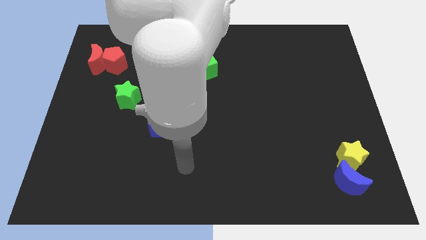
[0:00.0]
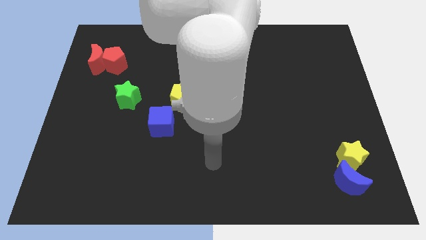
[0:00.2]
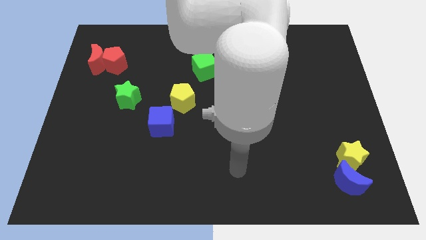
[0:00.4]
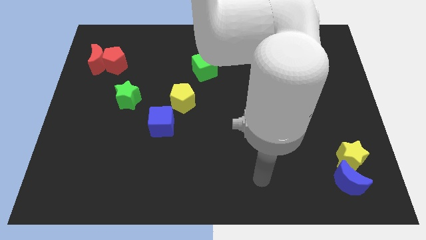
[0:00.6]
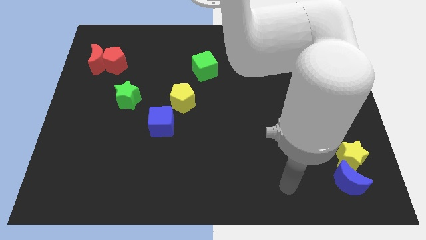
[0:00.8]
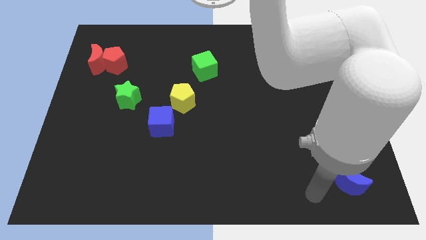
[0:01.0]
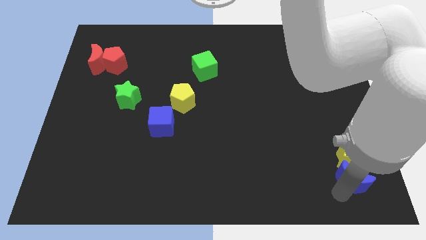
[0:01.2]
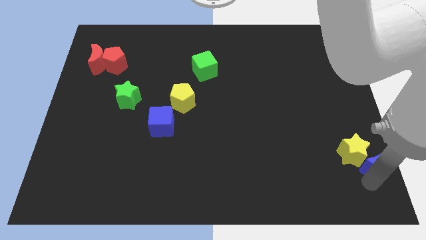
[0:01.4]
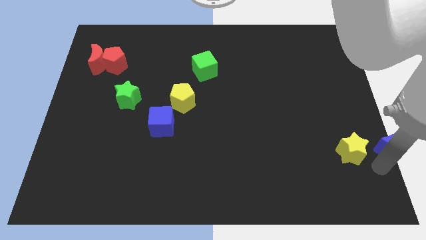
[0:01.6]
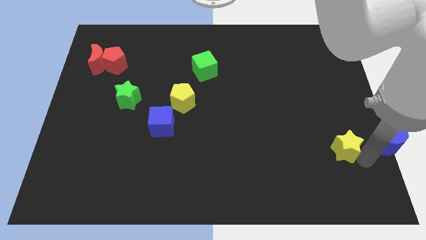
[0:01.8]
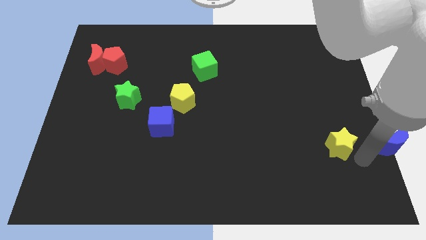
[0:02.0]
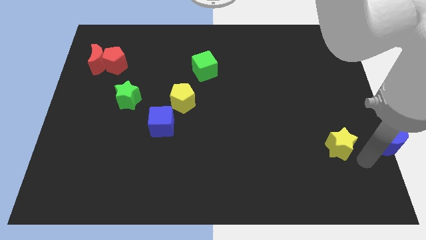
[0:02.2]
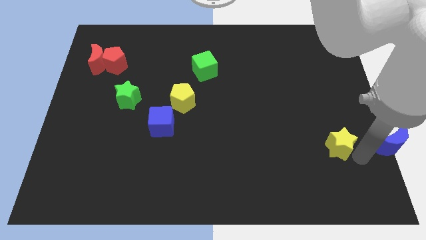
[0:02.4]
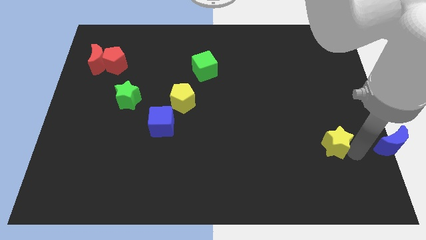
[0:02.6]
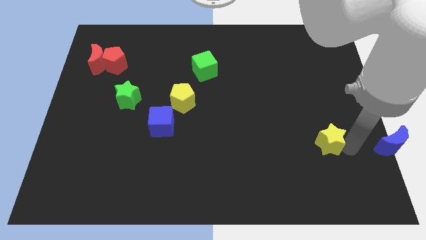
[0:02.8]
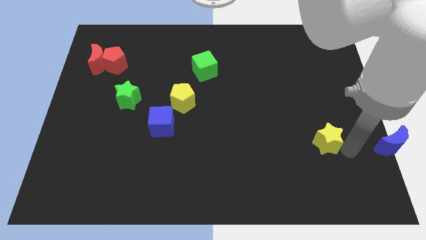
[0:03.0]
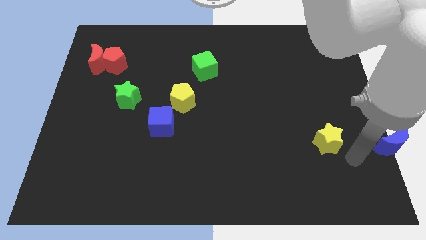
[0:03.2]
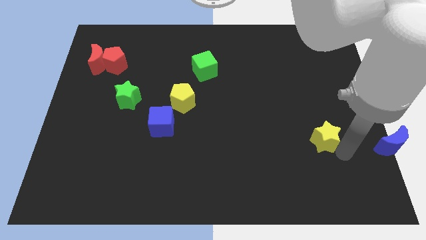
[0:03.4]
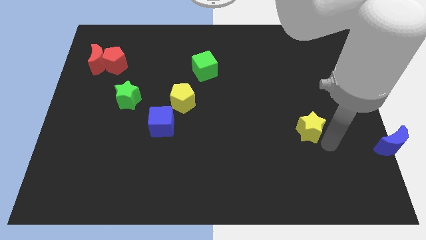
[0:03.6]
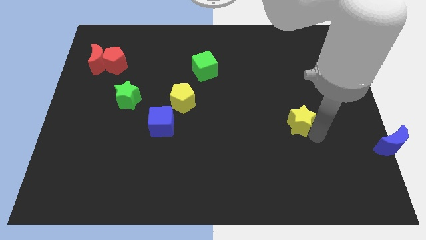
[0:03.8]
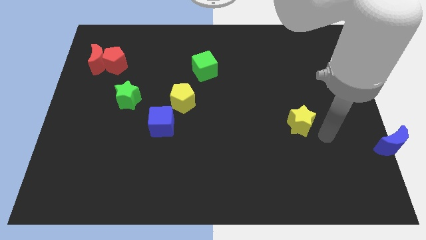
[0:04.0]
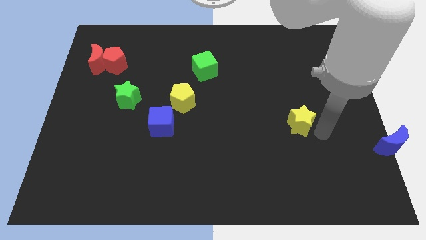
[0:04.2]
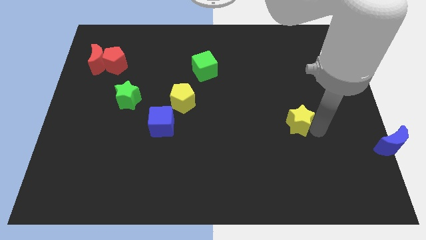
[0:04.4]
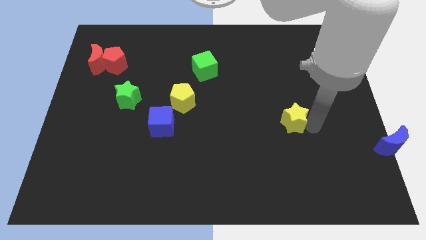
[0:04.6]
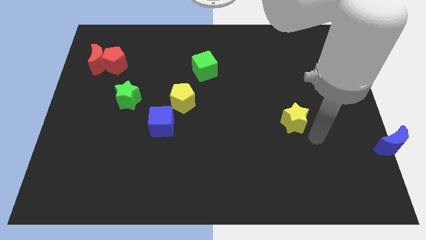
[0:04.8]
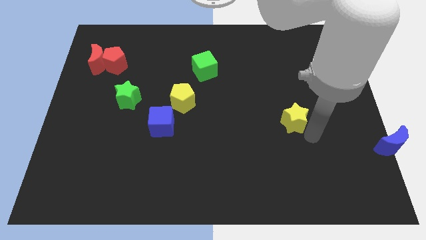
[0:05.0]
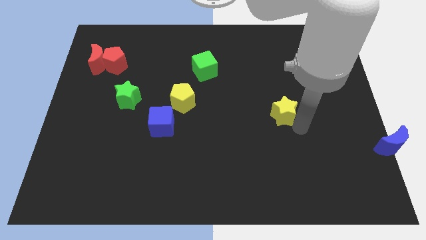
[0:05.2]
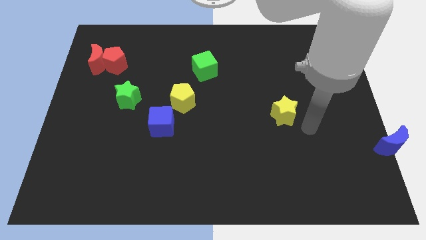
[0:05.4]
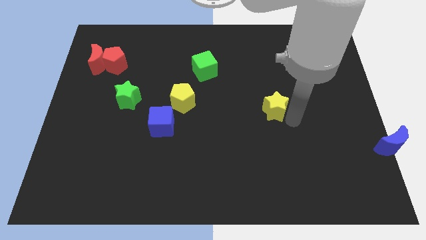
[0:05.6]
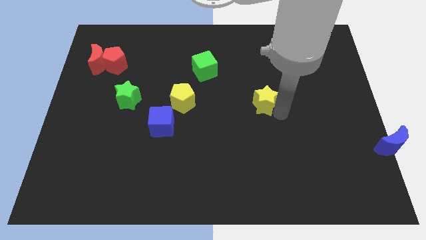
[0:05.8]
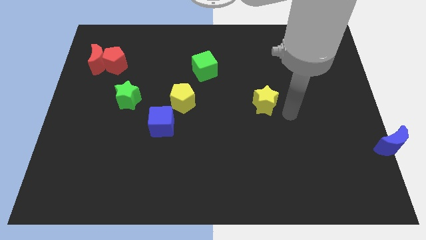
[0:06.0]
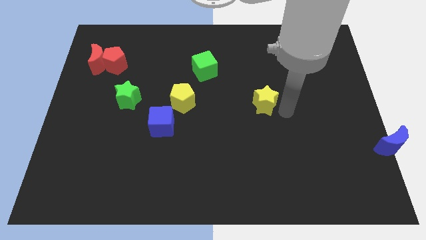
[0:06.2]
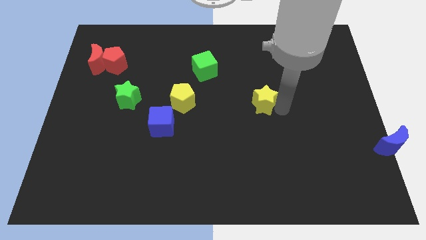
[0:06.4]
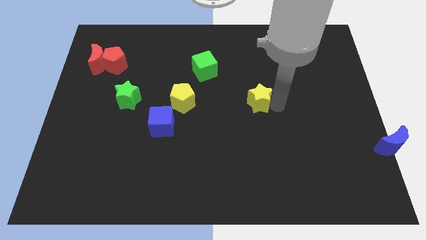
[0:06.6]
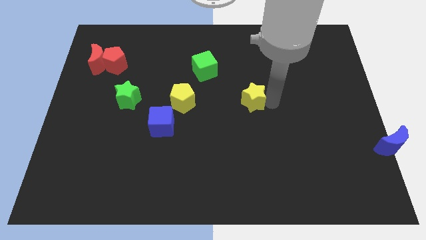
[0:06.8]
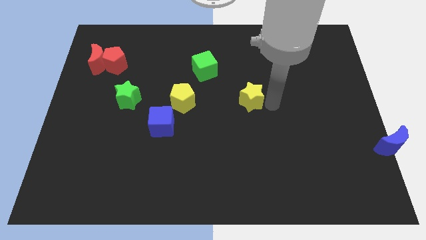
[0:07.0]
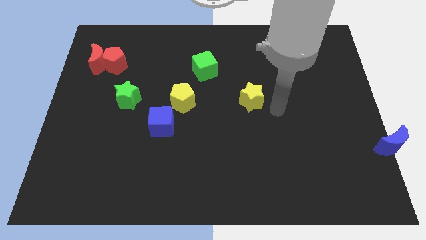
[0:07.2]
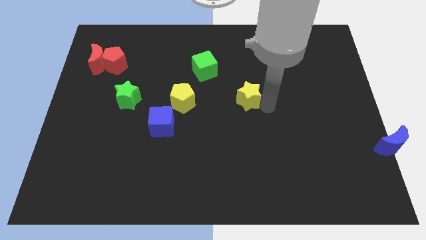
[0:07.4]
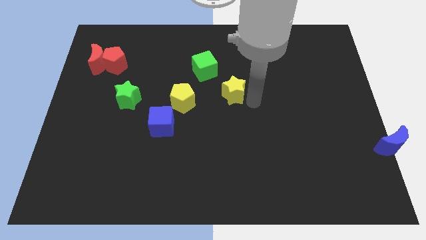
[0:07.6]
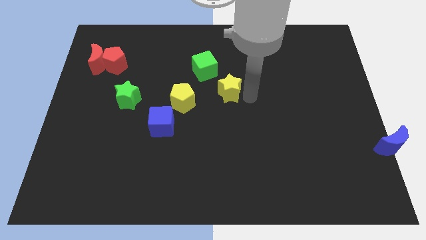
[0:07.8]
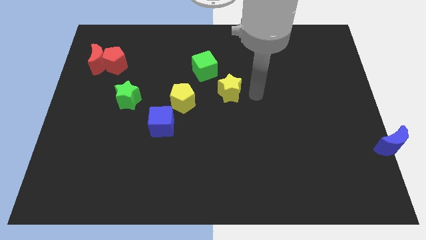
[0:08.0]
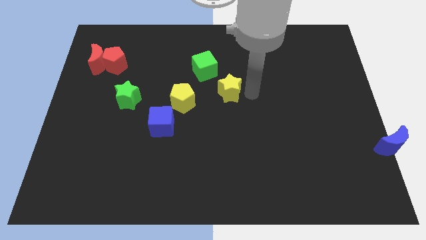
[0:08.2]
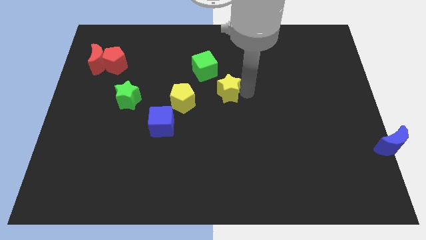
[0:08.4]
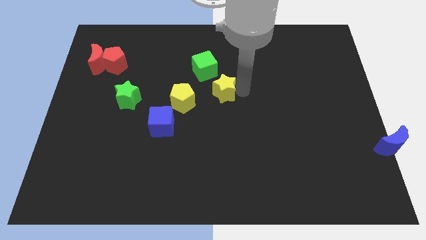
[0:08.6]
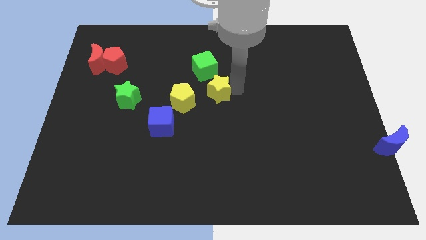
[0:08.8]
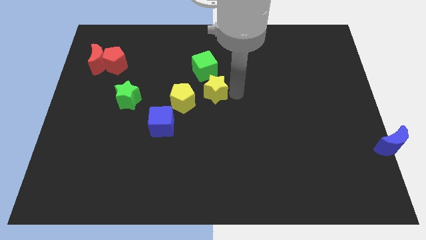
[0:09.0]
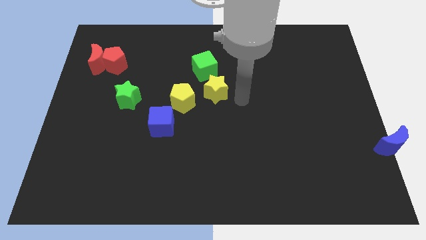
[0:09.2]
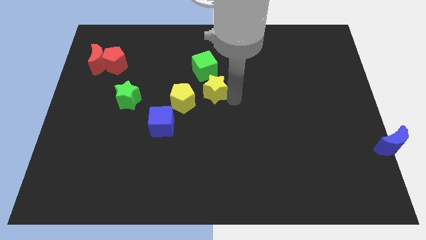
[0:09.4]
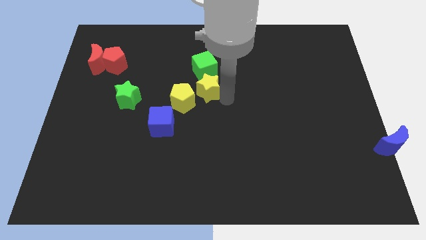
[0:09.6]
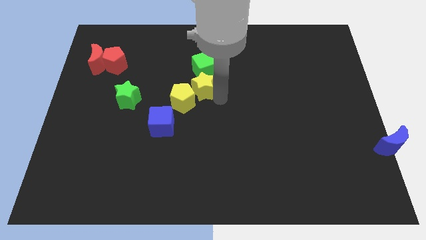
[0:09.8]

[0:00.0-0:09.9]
push the yellow star to the bottom left side of the green cube

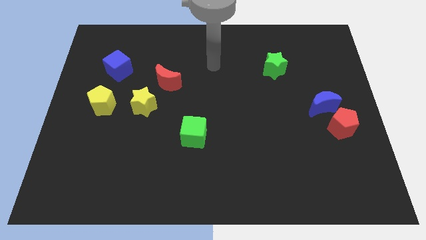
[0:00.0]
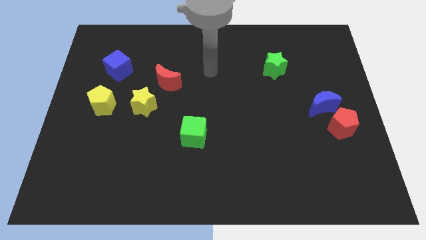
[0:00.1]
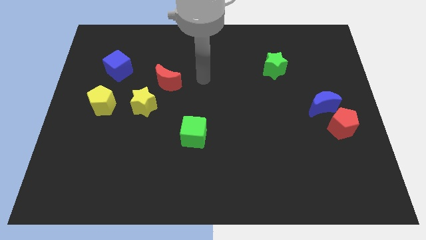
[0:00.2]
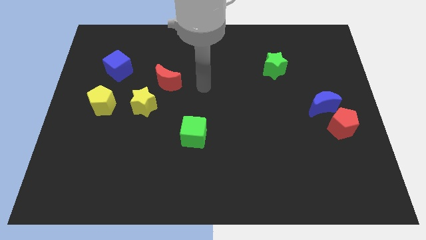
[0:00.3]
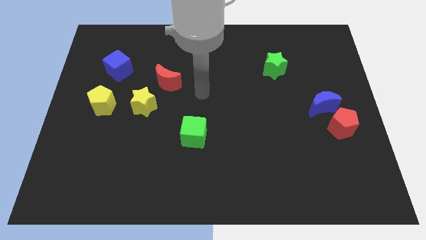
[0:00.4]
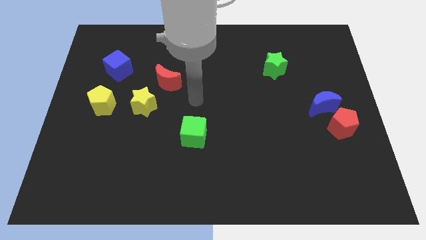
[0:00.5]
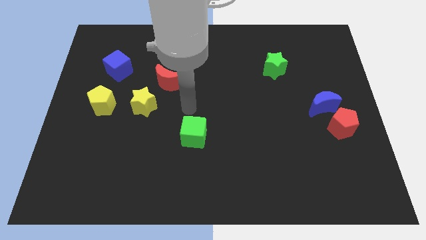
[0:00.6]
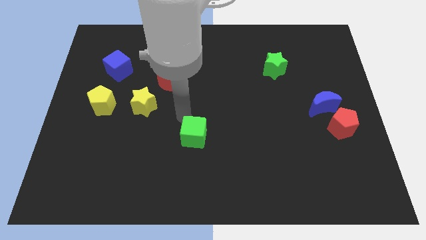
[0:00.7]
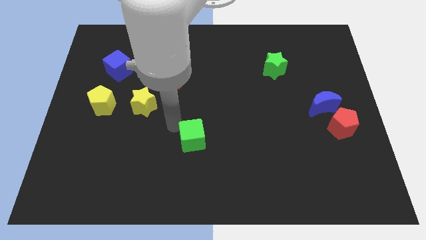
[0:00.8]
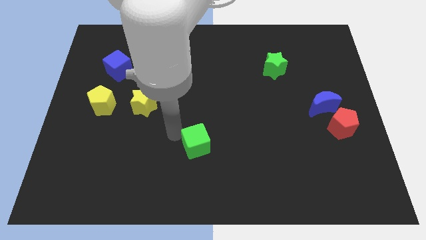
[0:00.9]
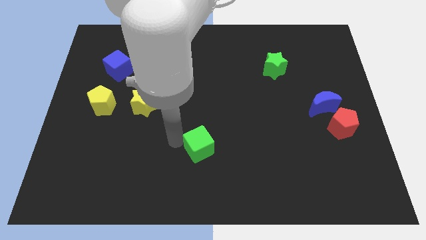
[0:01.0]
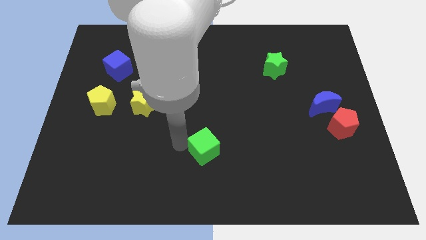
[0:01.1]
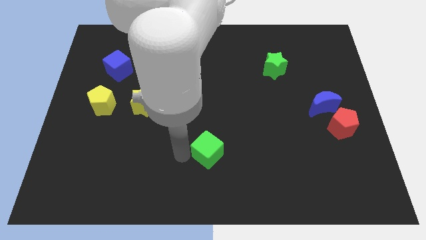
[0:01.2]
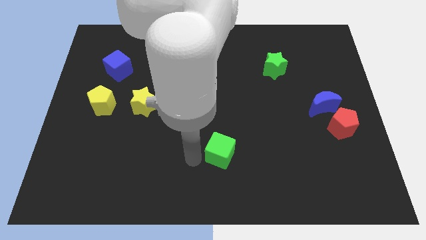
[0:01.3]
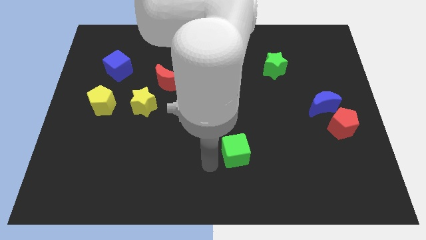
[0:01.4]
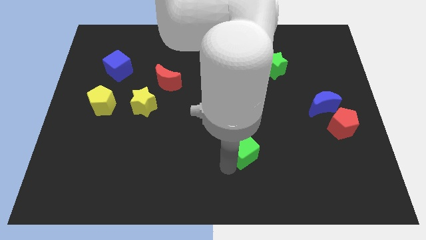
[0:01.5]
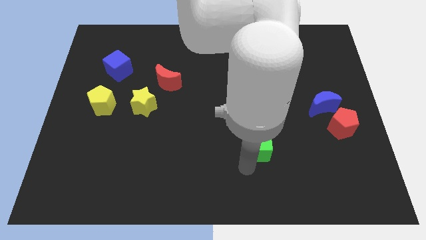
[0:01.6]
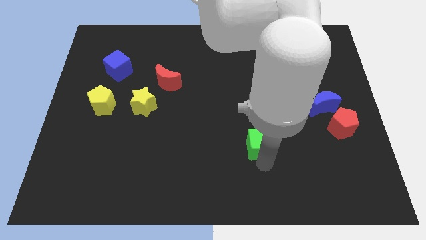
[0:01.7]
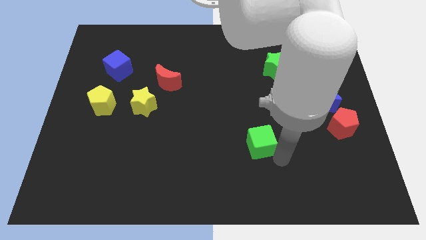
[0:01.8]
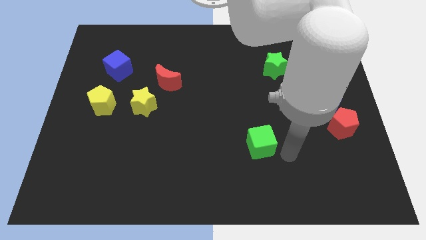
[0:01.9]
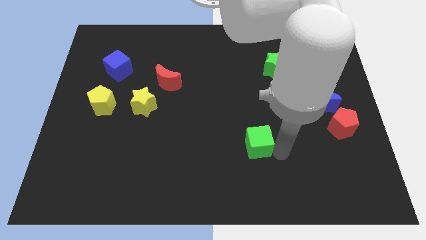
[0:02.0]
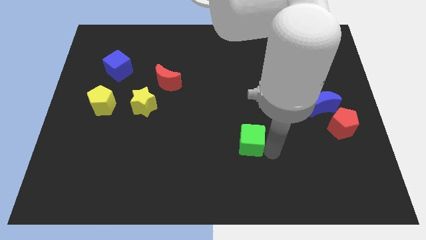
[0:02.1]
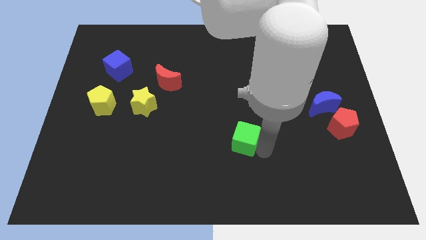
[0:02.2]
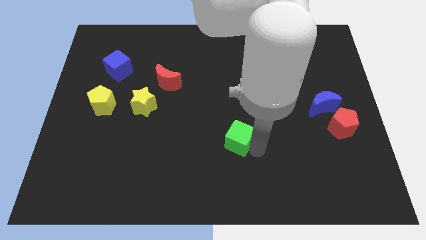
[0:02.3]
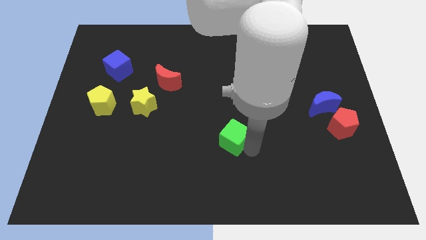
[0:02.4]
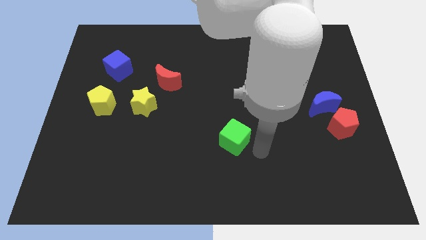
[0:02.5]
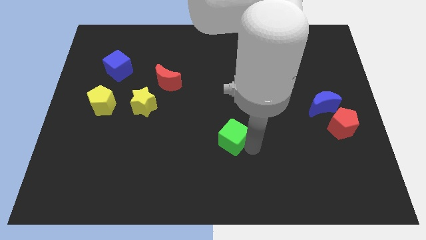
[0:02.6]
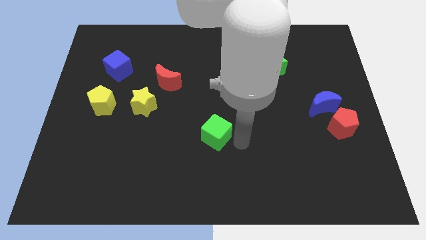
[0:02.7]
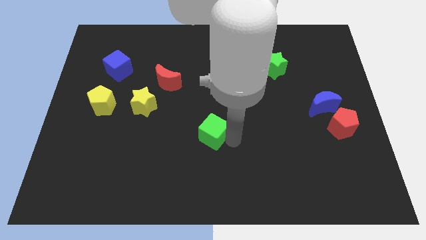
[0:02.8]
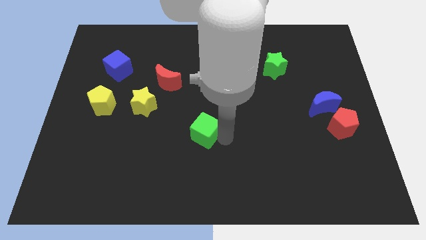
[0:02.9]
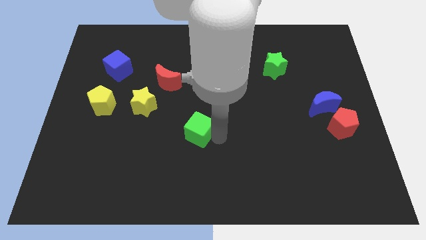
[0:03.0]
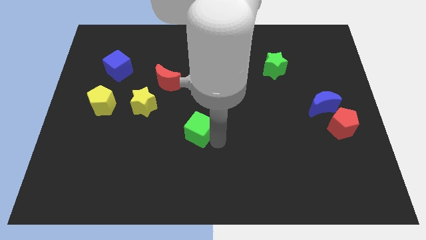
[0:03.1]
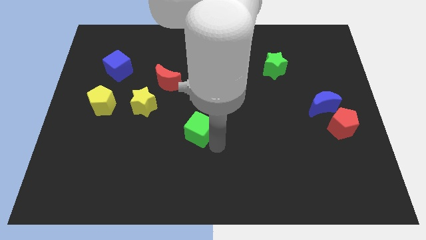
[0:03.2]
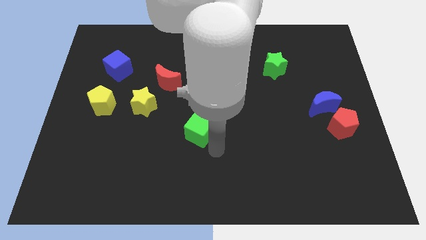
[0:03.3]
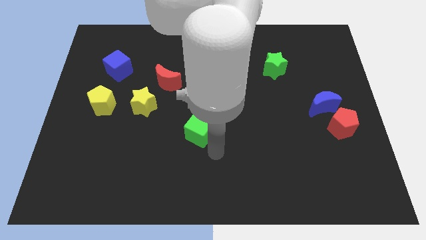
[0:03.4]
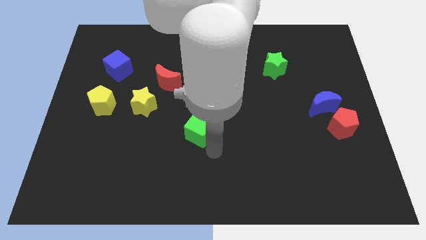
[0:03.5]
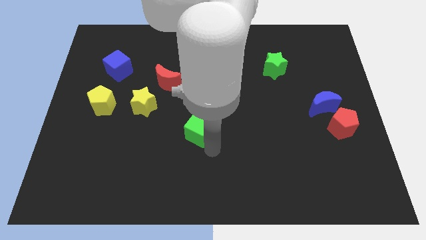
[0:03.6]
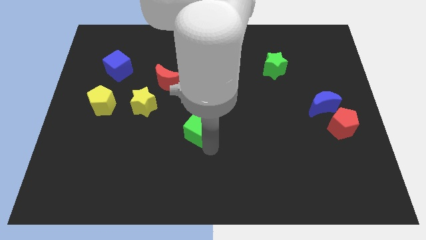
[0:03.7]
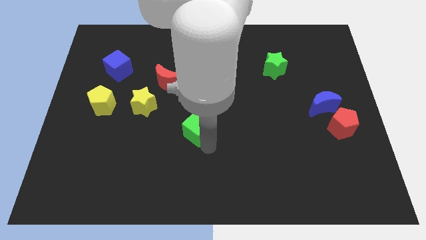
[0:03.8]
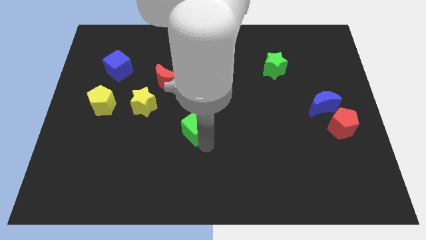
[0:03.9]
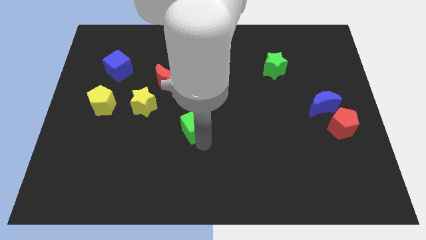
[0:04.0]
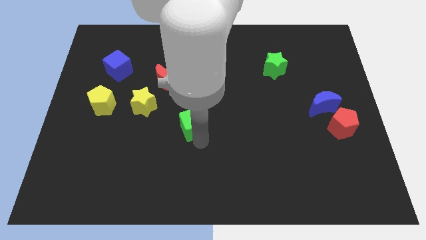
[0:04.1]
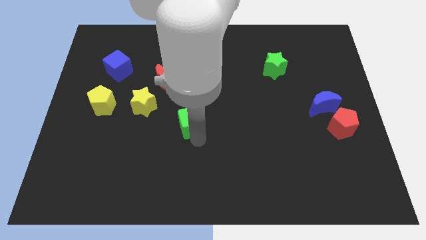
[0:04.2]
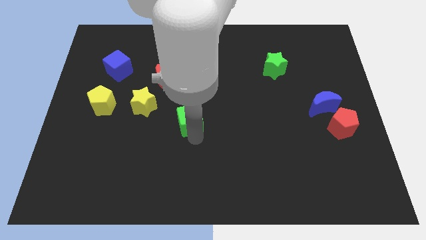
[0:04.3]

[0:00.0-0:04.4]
move the green cube to the right of the yellow star
